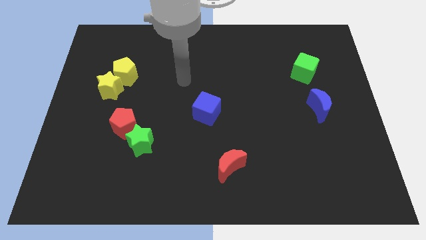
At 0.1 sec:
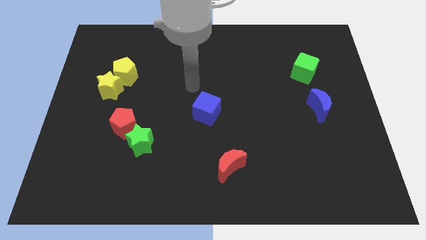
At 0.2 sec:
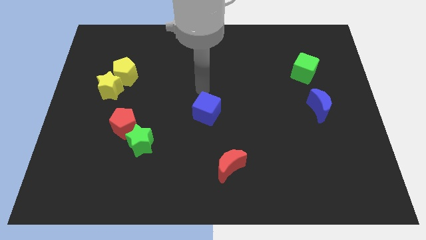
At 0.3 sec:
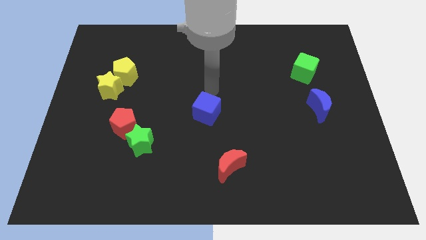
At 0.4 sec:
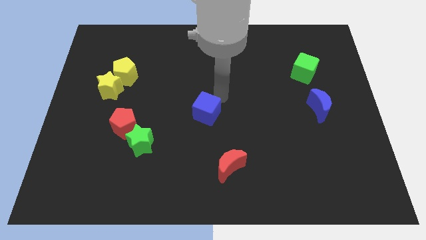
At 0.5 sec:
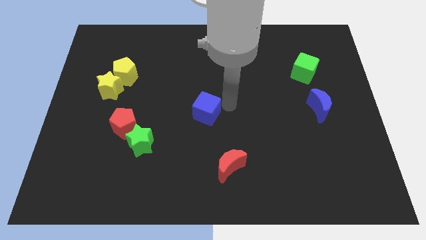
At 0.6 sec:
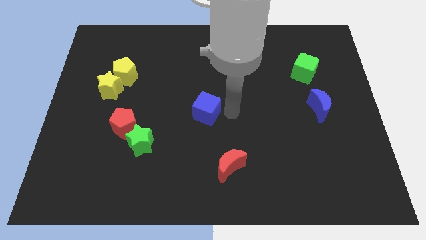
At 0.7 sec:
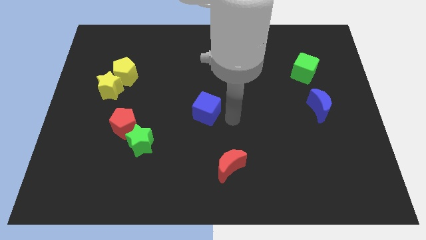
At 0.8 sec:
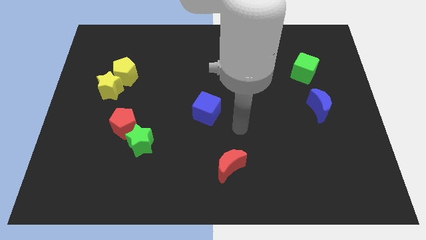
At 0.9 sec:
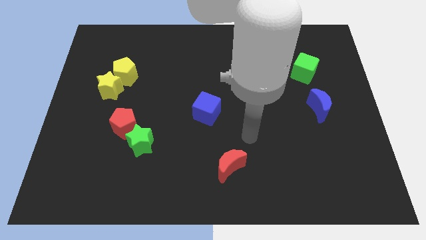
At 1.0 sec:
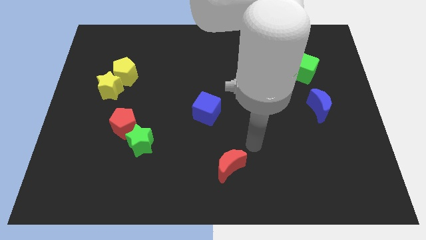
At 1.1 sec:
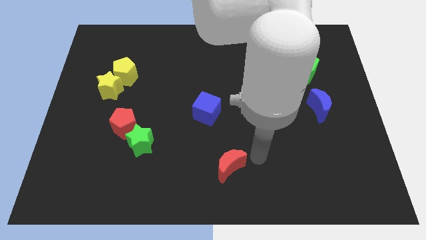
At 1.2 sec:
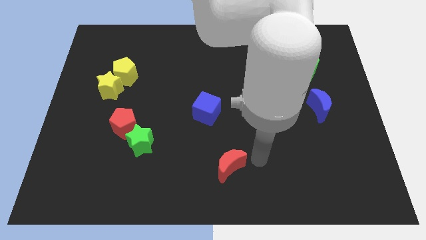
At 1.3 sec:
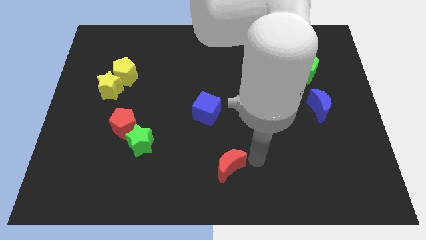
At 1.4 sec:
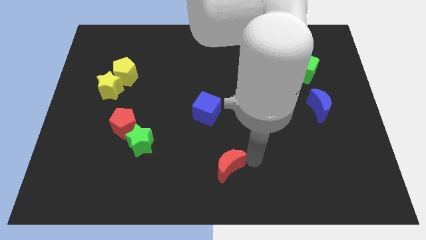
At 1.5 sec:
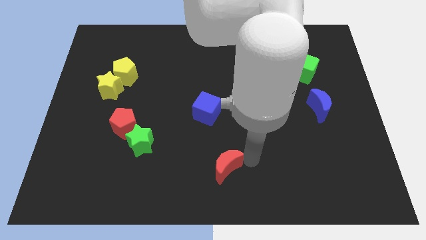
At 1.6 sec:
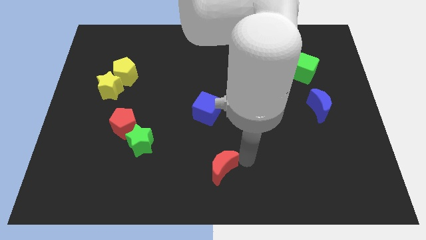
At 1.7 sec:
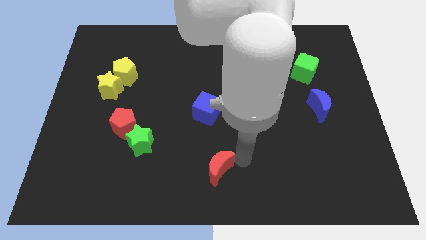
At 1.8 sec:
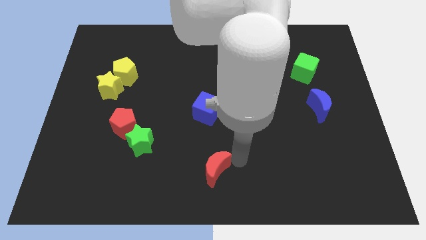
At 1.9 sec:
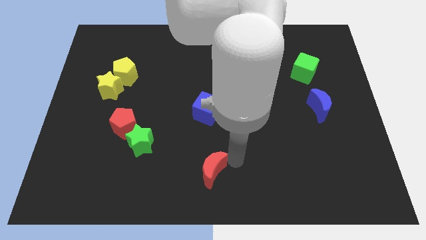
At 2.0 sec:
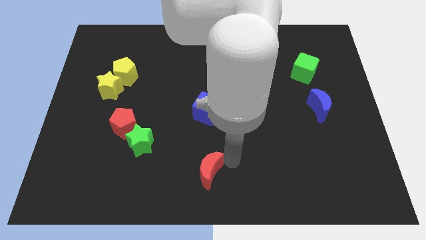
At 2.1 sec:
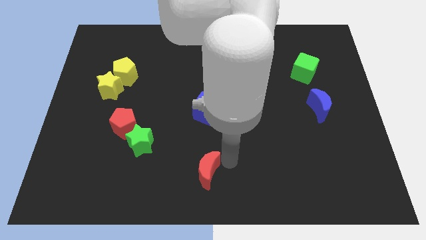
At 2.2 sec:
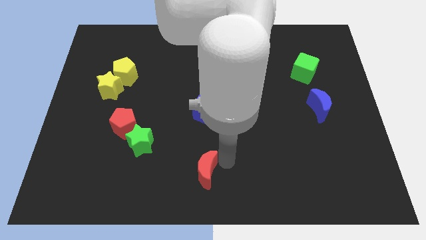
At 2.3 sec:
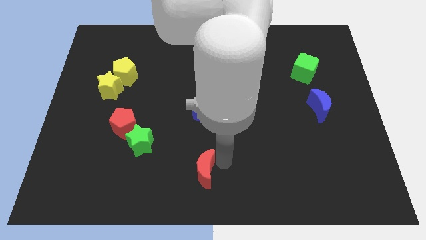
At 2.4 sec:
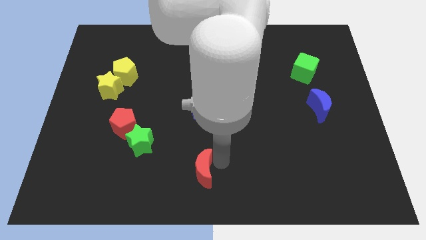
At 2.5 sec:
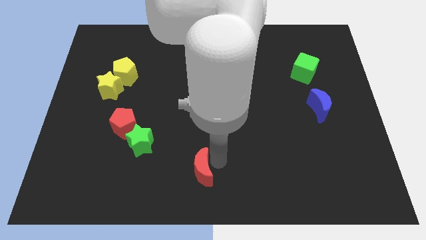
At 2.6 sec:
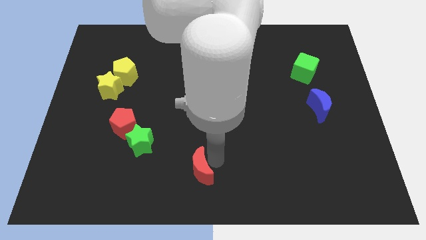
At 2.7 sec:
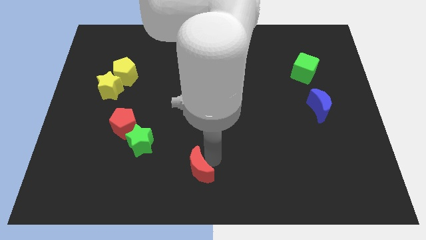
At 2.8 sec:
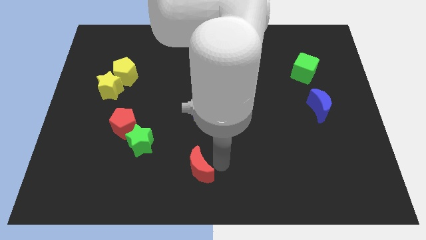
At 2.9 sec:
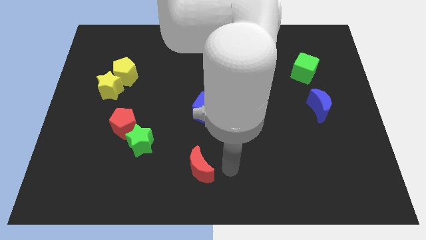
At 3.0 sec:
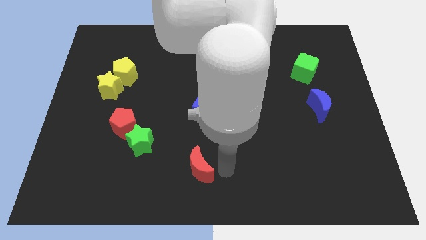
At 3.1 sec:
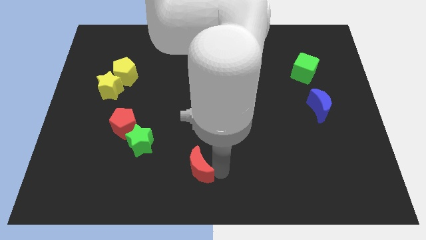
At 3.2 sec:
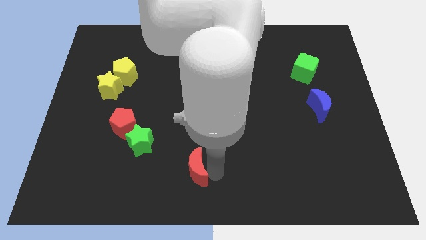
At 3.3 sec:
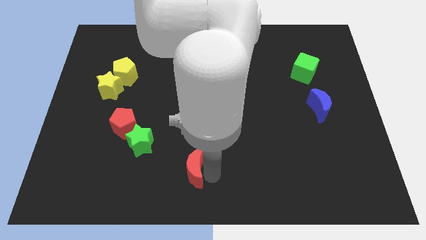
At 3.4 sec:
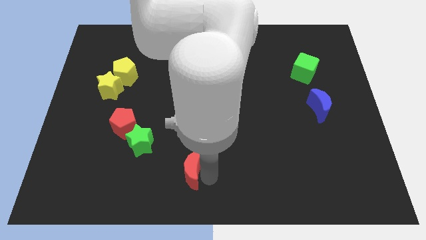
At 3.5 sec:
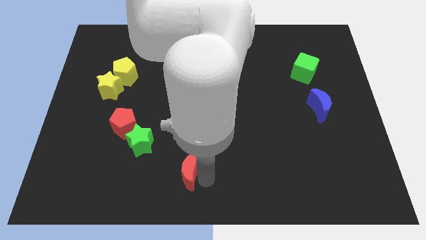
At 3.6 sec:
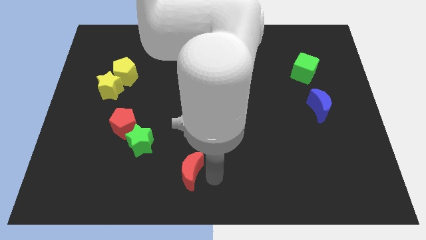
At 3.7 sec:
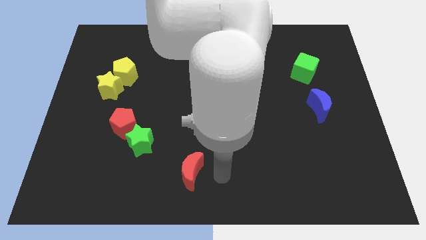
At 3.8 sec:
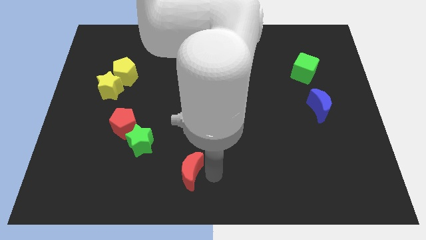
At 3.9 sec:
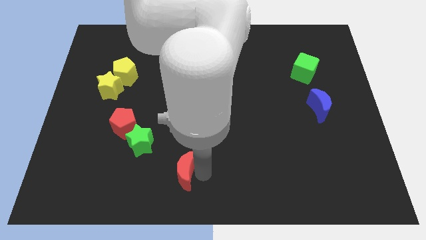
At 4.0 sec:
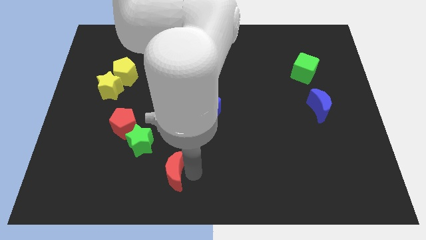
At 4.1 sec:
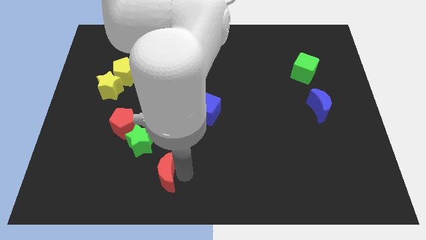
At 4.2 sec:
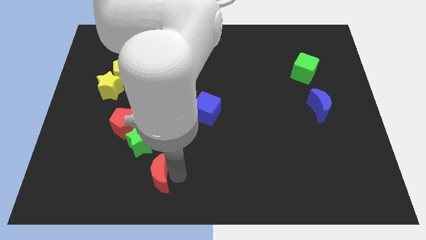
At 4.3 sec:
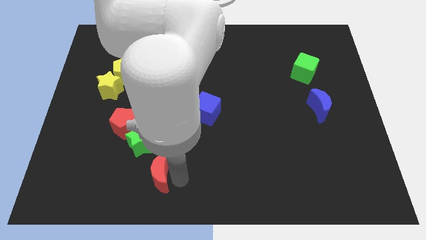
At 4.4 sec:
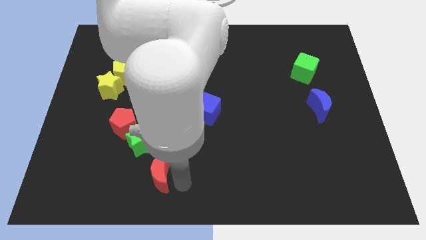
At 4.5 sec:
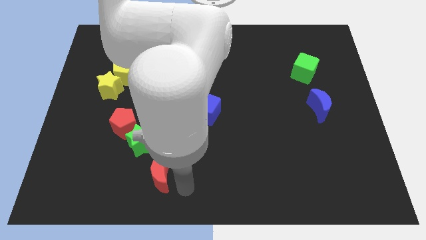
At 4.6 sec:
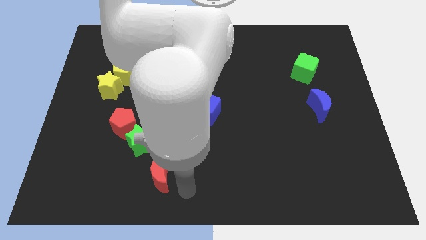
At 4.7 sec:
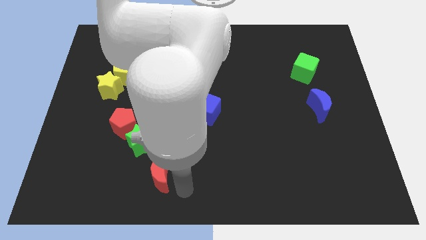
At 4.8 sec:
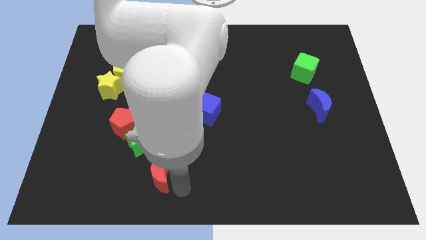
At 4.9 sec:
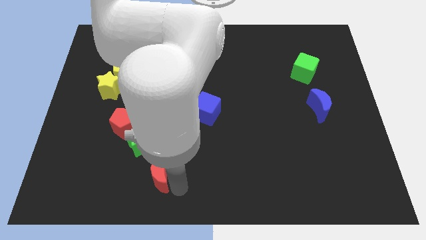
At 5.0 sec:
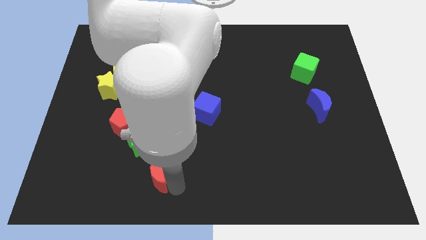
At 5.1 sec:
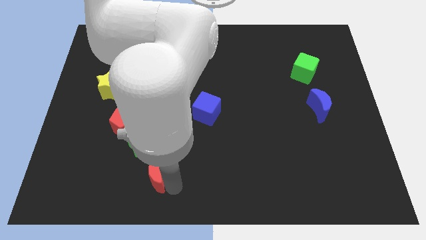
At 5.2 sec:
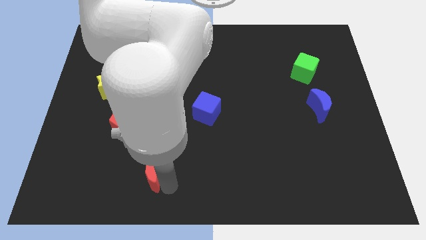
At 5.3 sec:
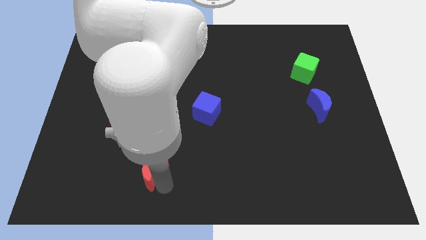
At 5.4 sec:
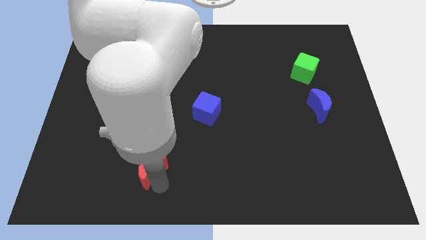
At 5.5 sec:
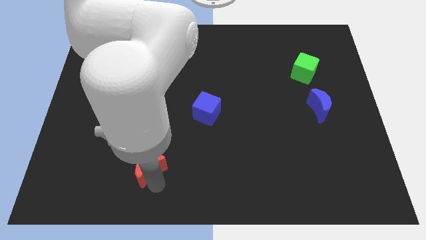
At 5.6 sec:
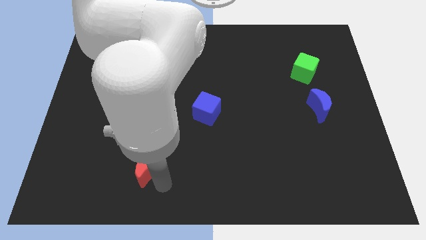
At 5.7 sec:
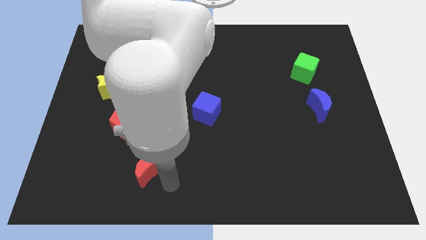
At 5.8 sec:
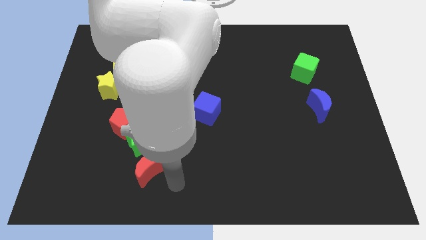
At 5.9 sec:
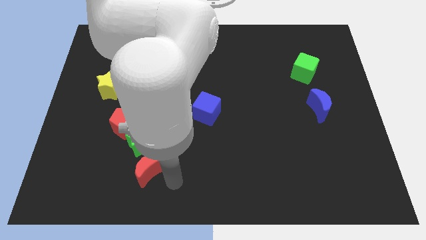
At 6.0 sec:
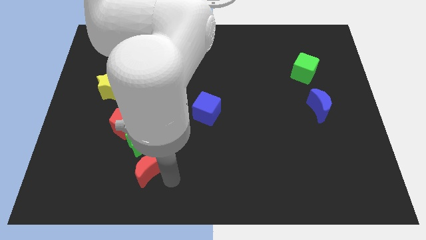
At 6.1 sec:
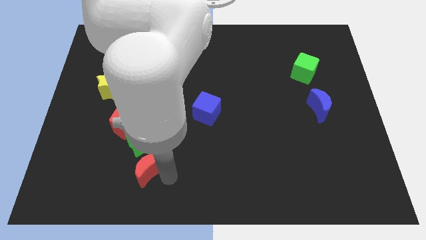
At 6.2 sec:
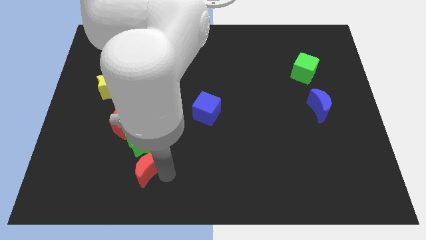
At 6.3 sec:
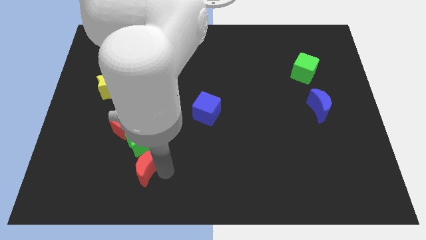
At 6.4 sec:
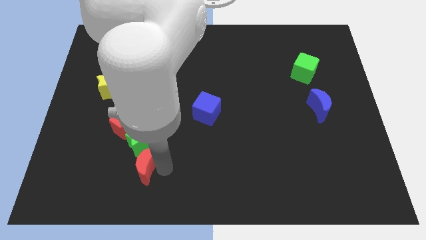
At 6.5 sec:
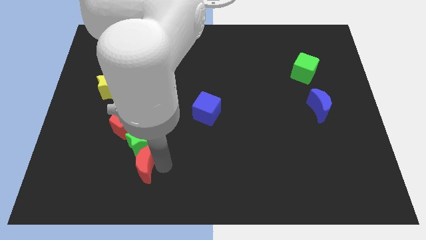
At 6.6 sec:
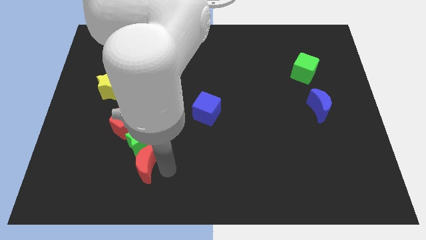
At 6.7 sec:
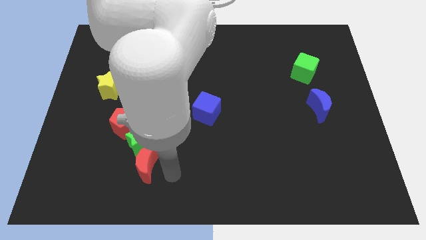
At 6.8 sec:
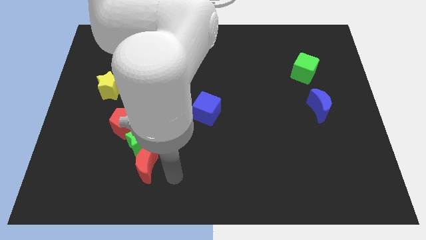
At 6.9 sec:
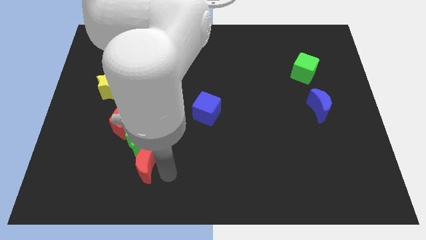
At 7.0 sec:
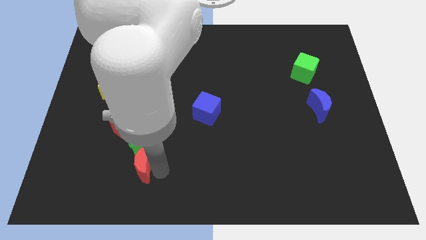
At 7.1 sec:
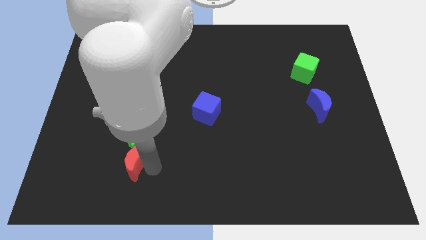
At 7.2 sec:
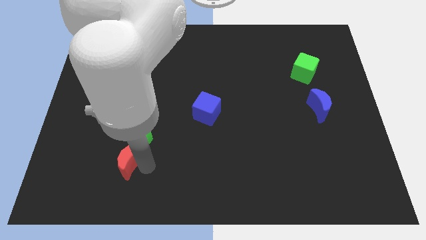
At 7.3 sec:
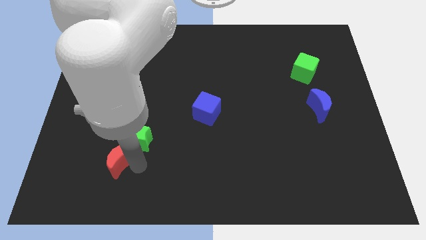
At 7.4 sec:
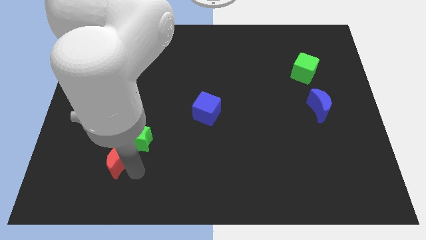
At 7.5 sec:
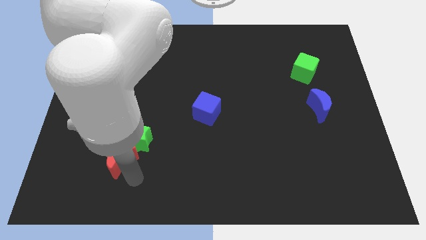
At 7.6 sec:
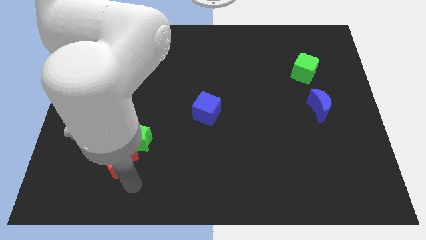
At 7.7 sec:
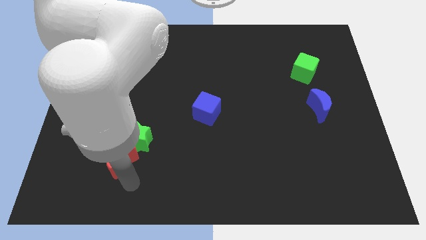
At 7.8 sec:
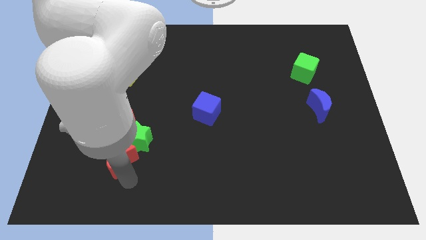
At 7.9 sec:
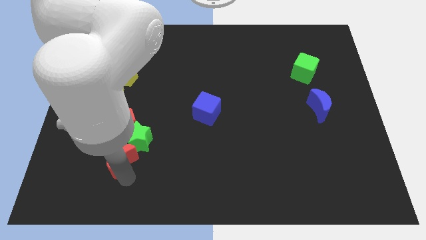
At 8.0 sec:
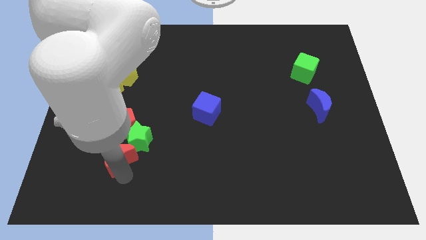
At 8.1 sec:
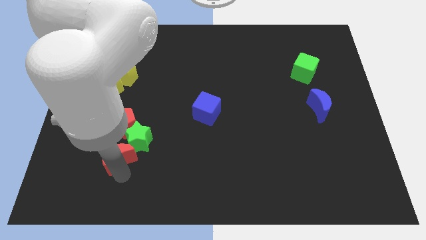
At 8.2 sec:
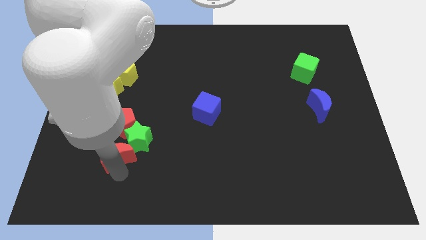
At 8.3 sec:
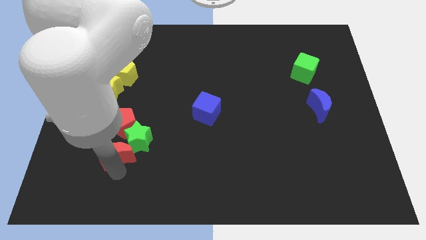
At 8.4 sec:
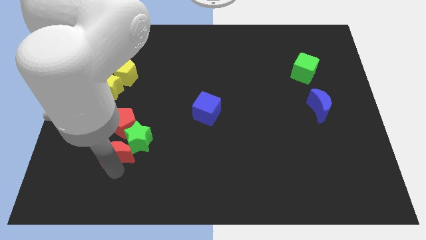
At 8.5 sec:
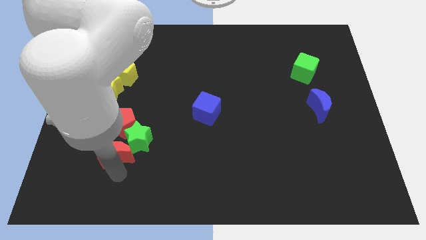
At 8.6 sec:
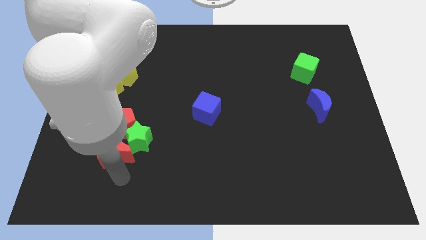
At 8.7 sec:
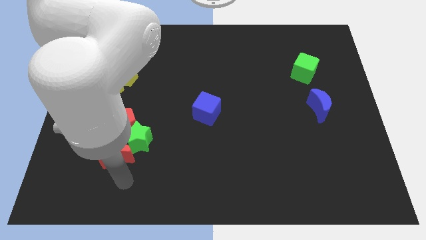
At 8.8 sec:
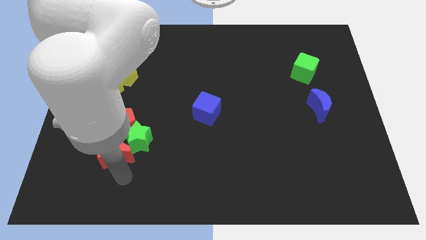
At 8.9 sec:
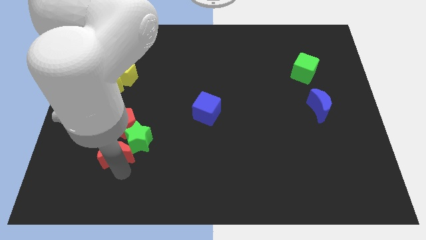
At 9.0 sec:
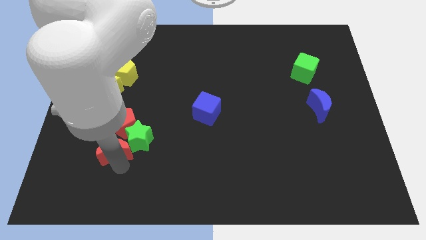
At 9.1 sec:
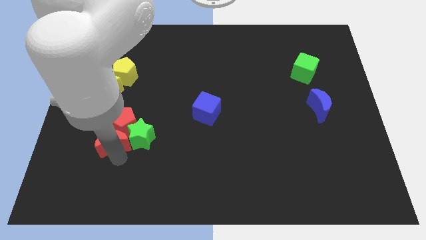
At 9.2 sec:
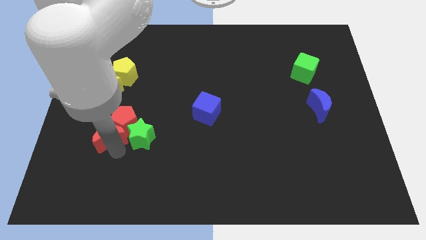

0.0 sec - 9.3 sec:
put the red moon to the bottom of the yellow star
